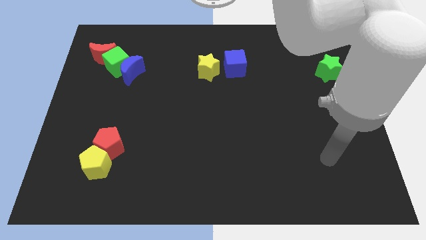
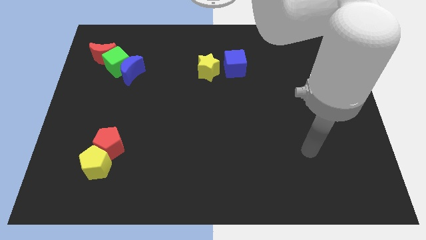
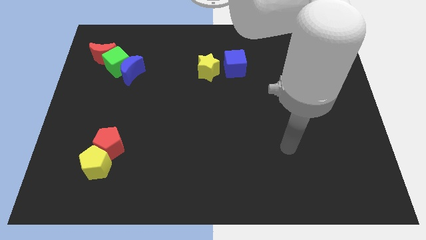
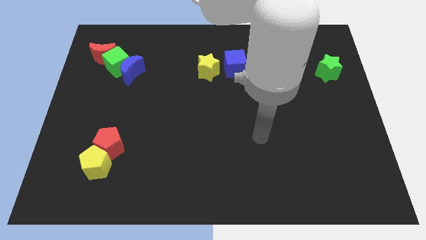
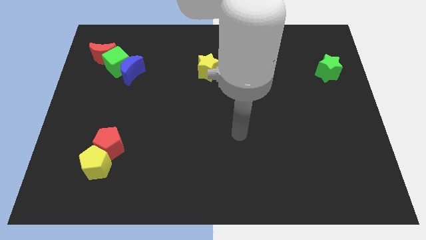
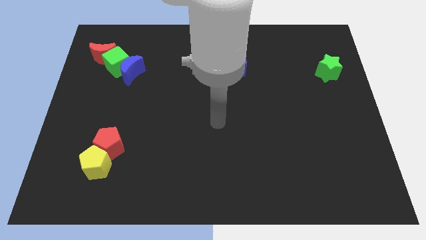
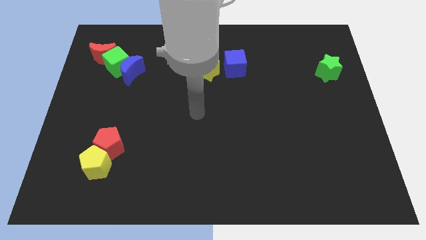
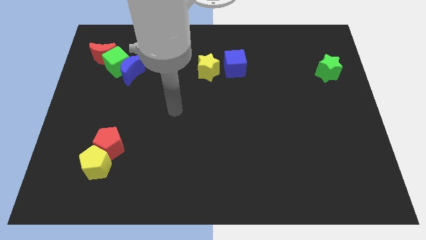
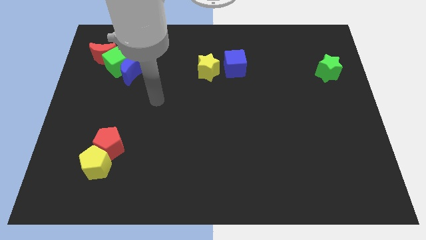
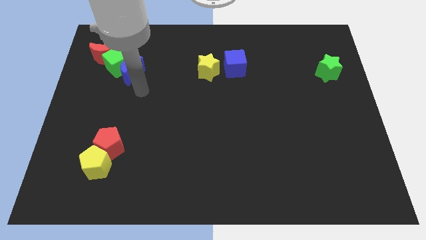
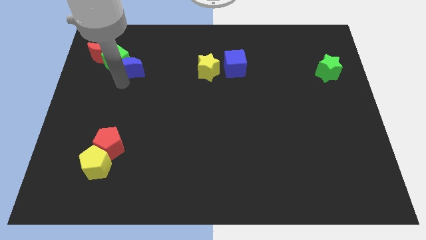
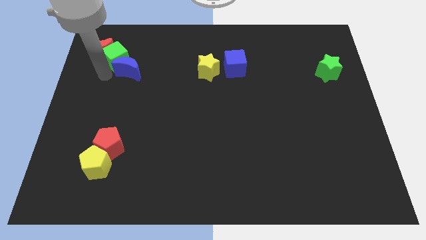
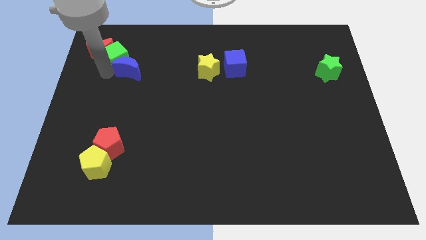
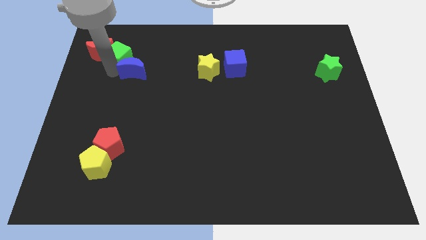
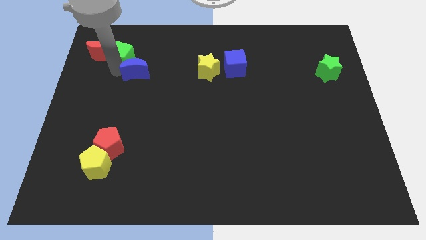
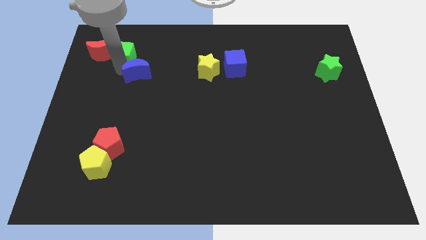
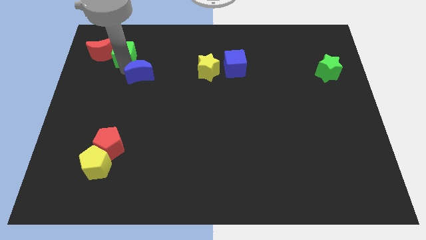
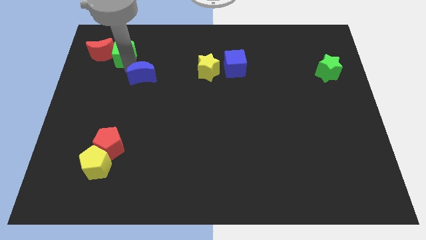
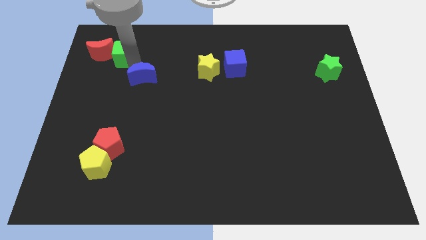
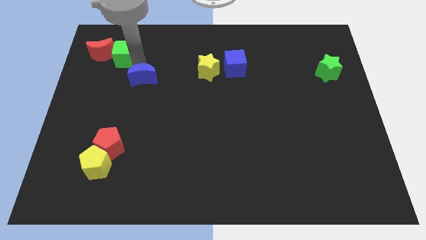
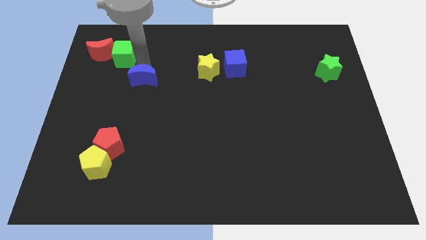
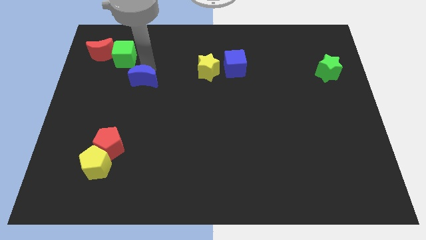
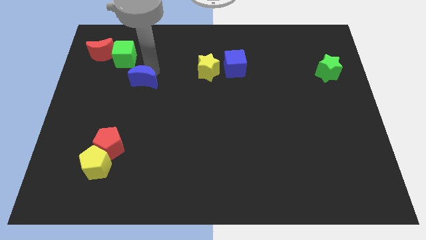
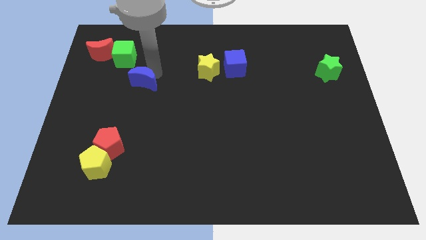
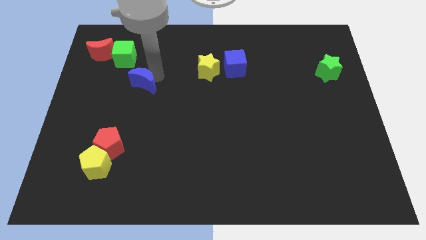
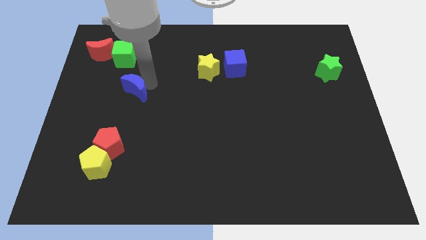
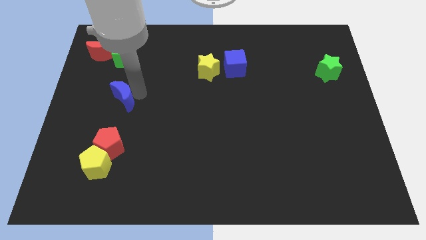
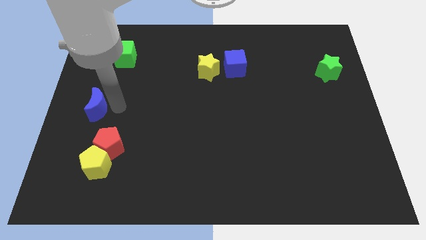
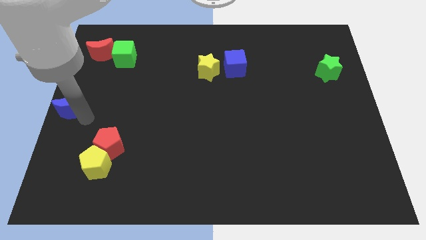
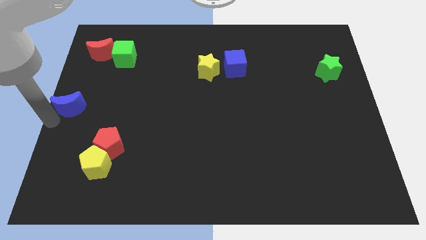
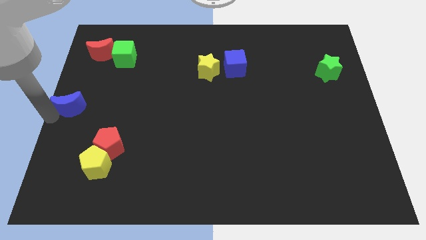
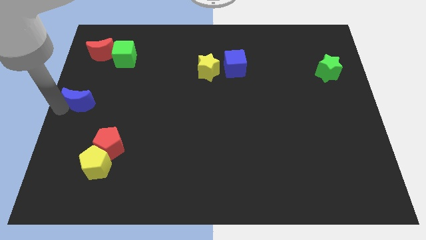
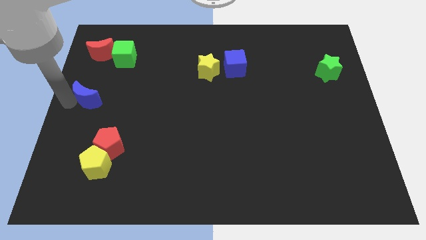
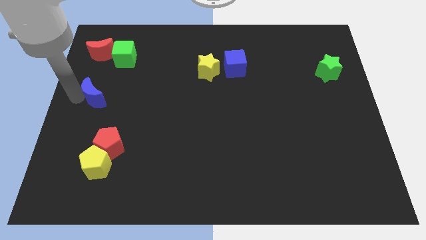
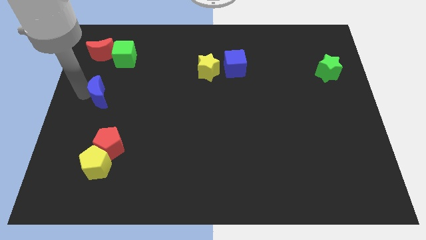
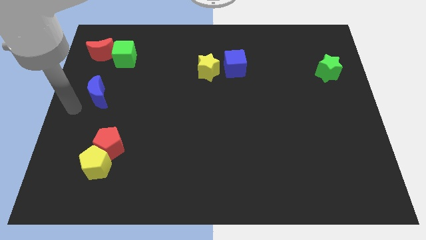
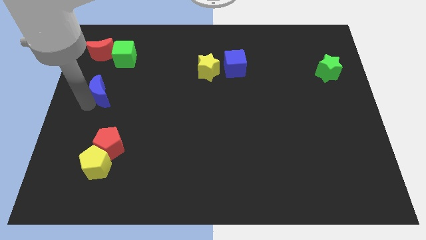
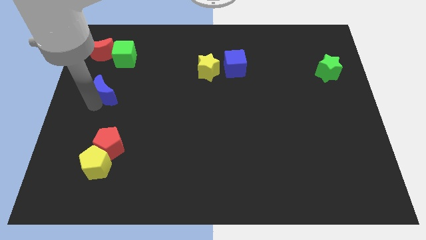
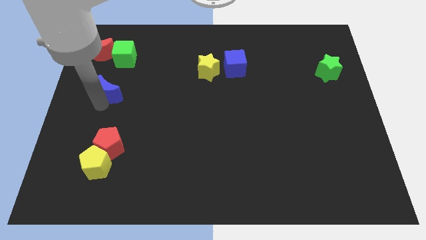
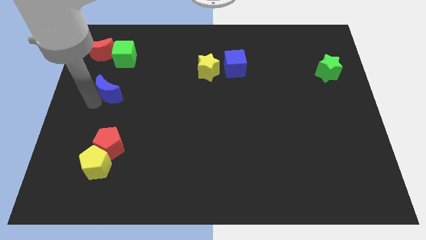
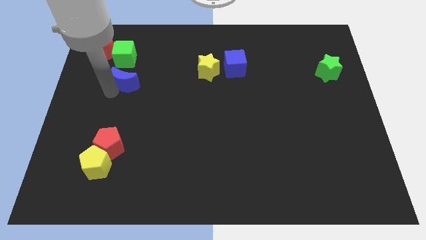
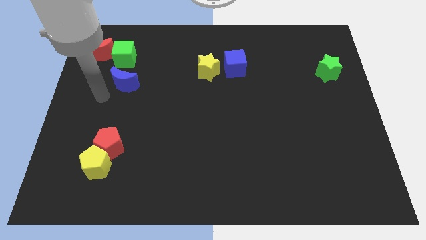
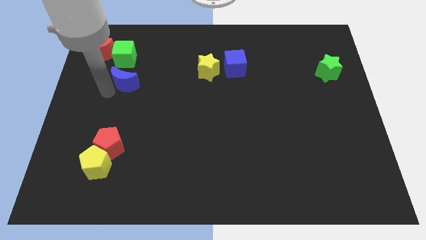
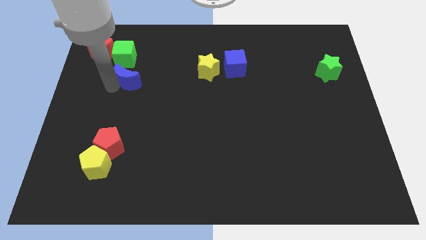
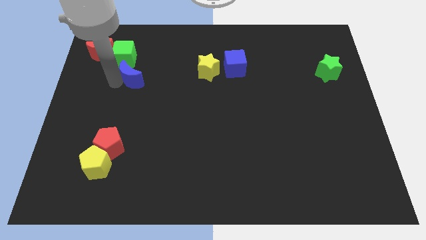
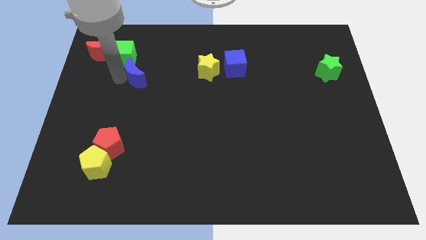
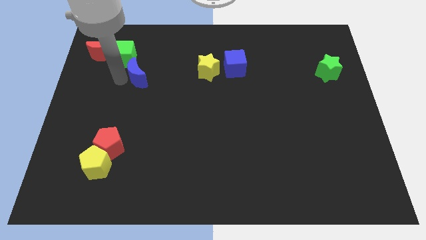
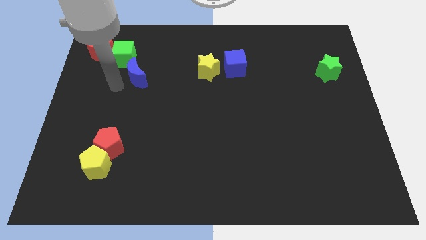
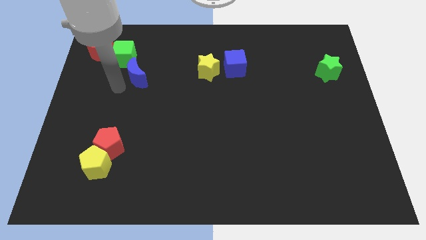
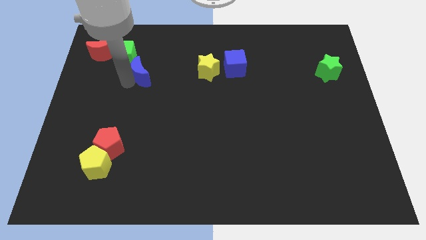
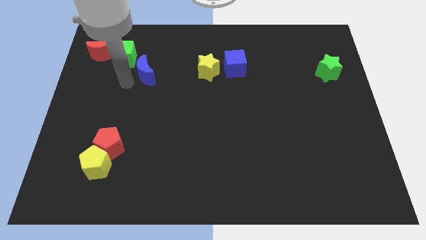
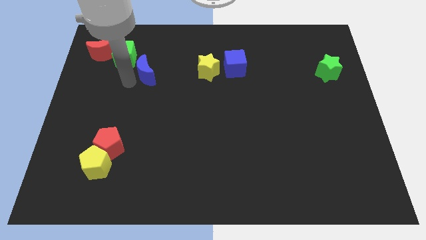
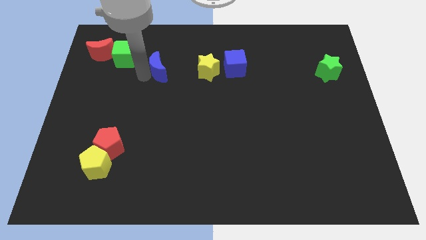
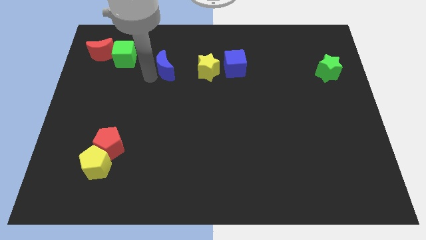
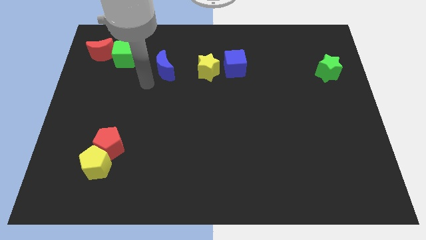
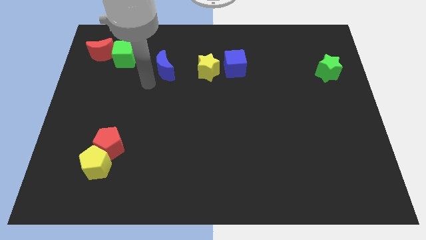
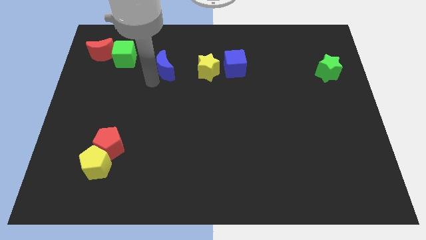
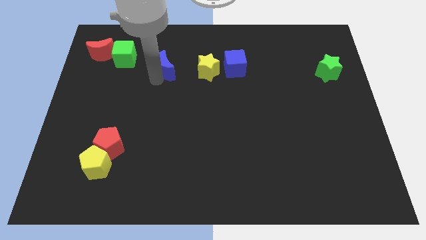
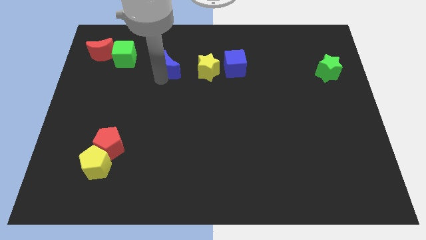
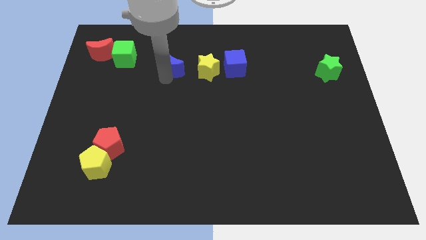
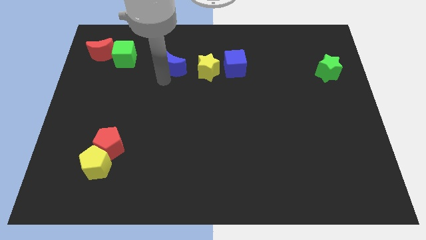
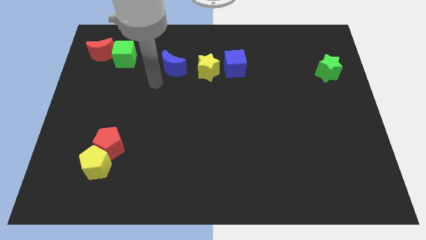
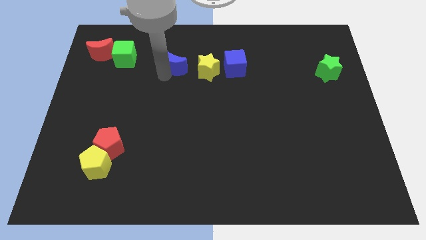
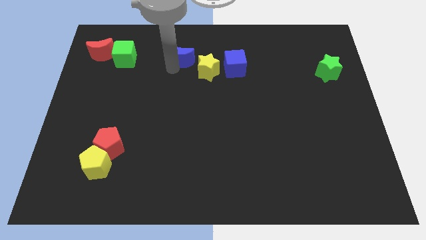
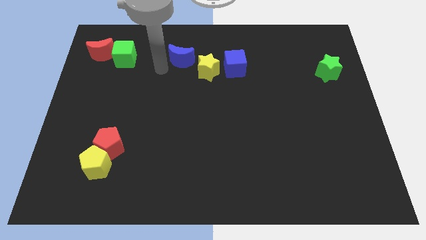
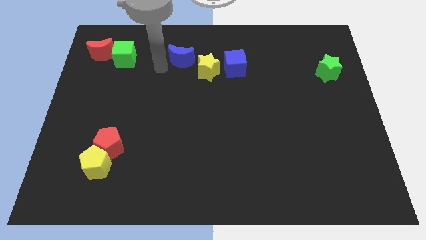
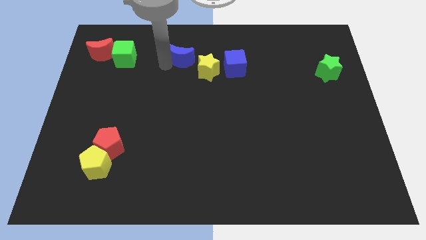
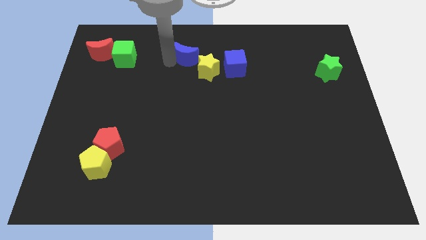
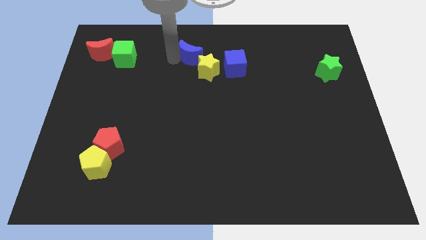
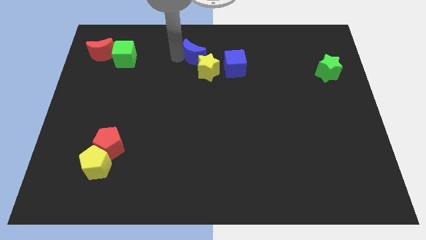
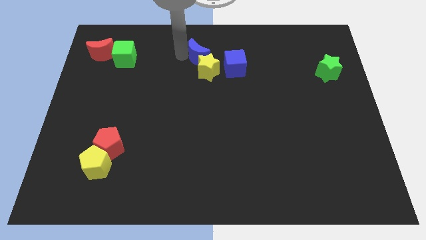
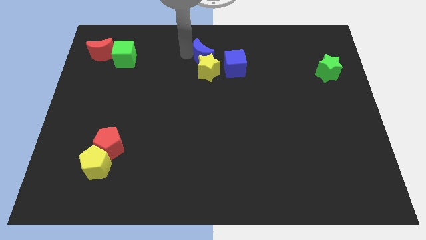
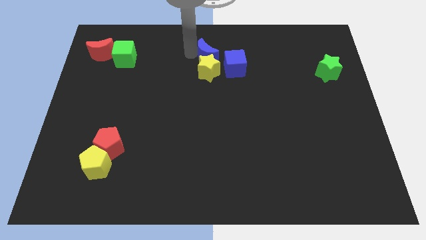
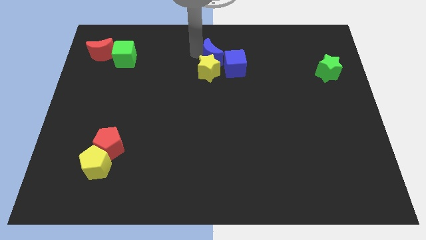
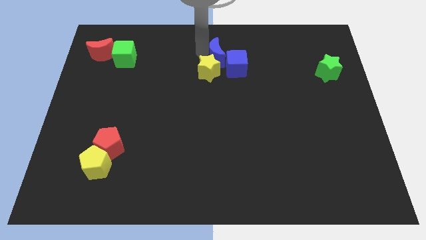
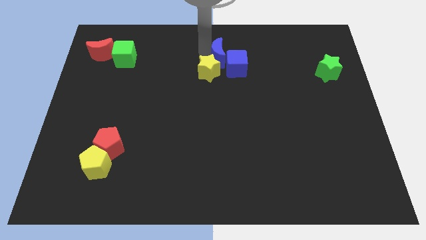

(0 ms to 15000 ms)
push the blue moon next to the blue cube
